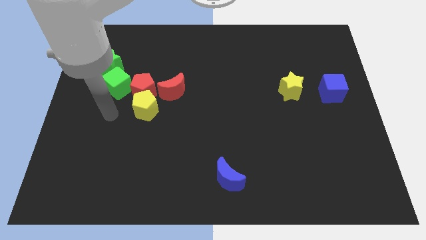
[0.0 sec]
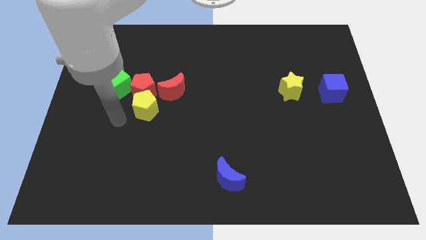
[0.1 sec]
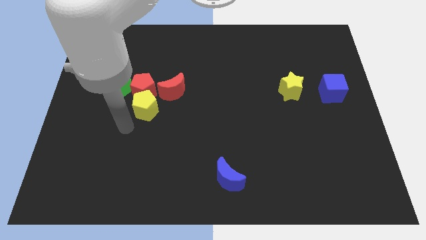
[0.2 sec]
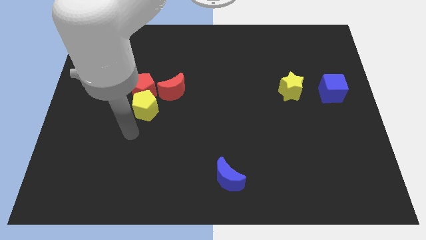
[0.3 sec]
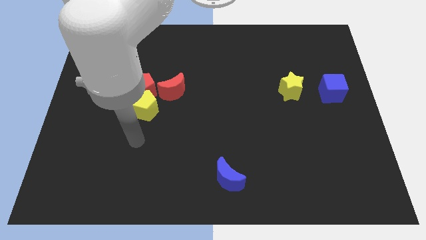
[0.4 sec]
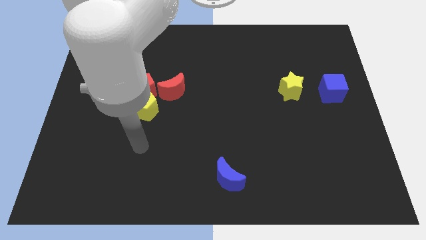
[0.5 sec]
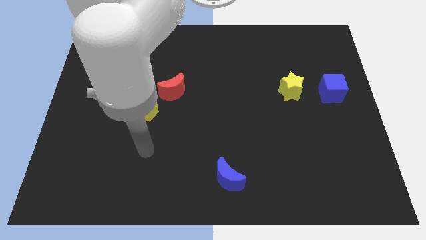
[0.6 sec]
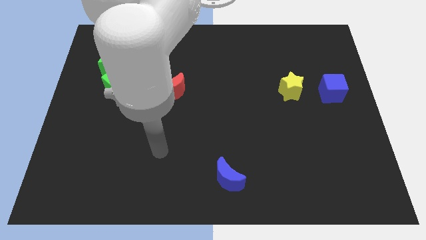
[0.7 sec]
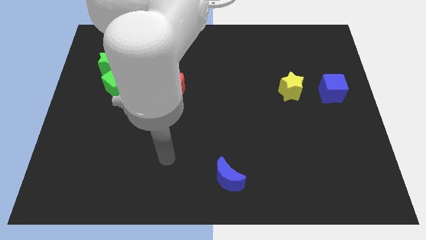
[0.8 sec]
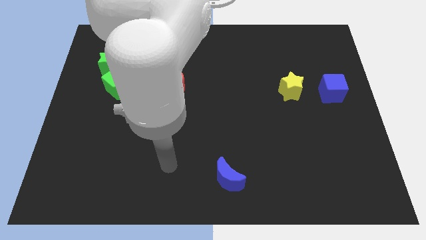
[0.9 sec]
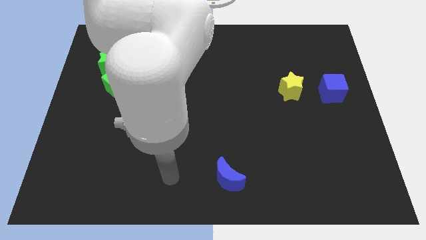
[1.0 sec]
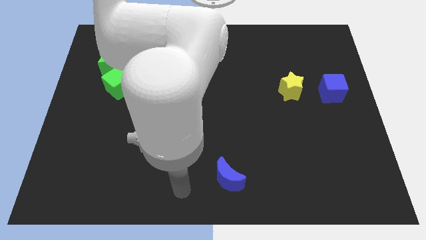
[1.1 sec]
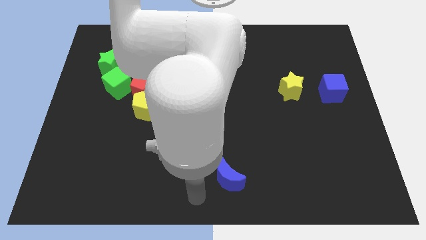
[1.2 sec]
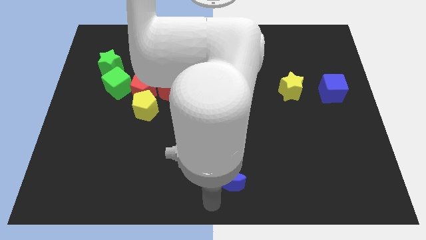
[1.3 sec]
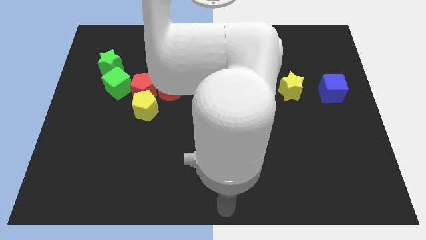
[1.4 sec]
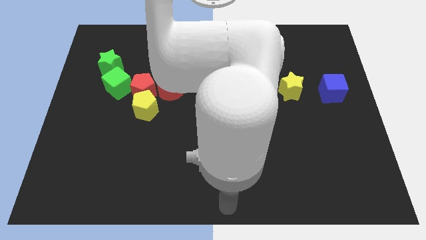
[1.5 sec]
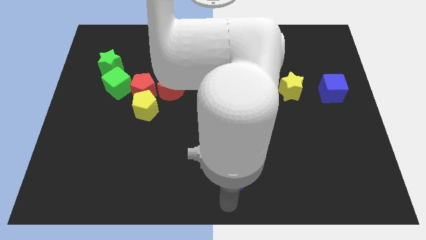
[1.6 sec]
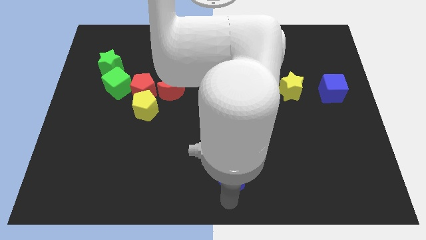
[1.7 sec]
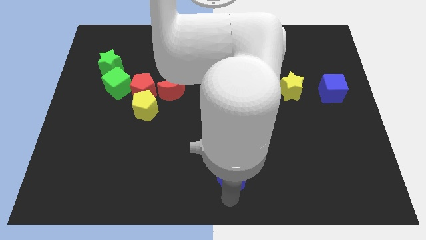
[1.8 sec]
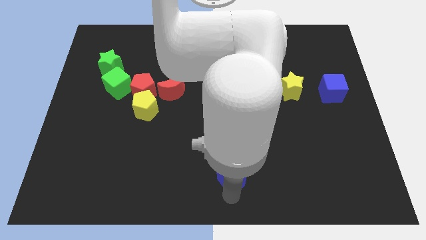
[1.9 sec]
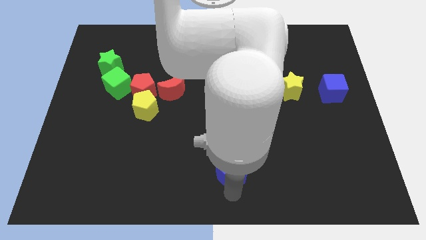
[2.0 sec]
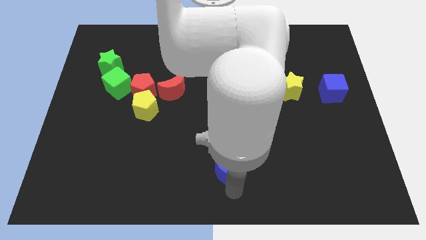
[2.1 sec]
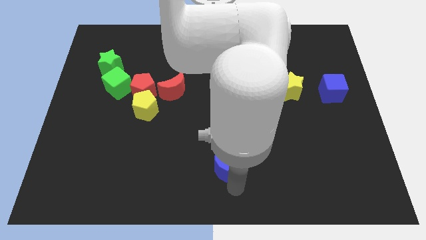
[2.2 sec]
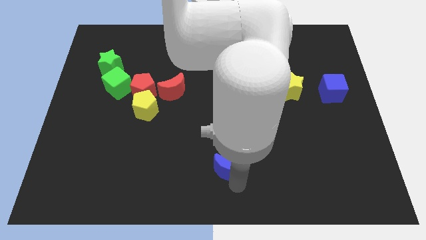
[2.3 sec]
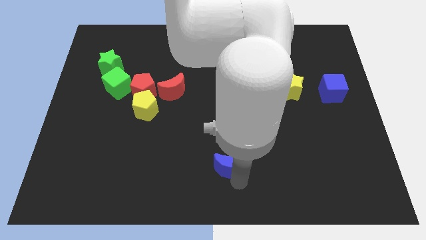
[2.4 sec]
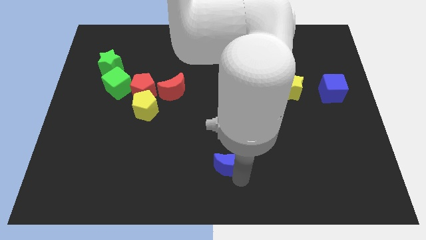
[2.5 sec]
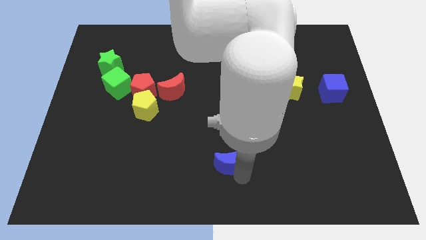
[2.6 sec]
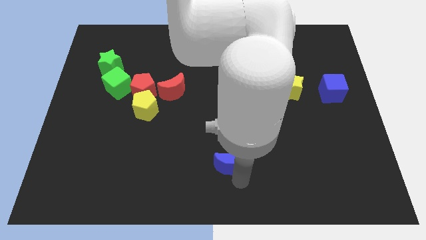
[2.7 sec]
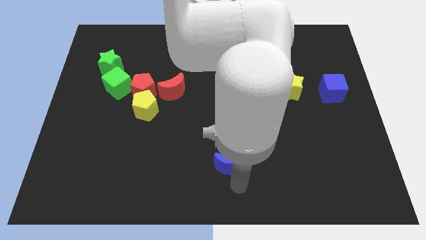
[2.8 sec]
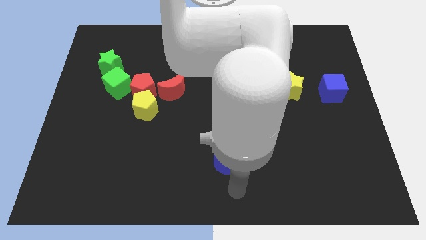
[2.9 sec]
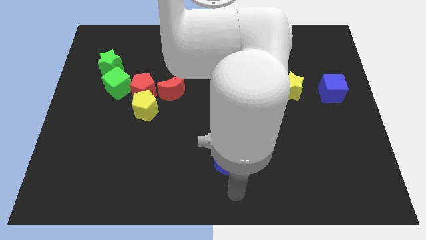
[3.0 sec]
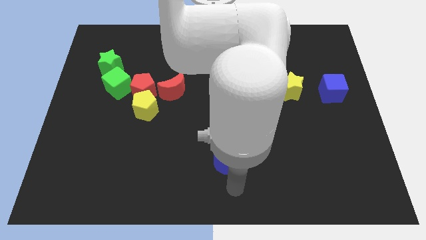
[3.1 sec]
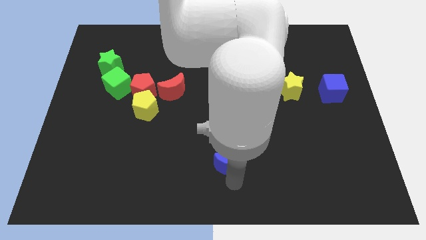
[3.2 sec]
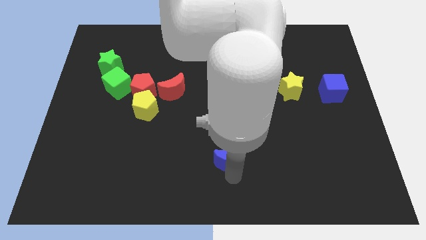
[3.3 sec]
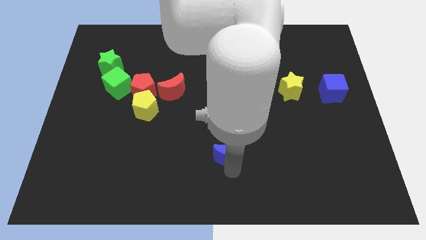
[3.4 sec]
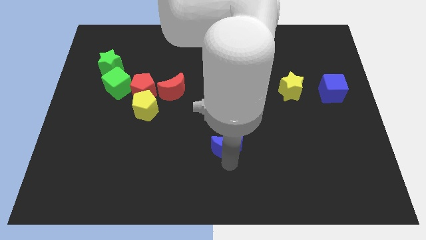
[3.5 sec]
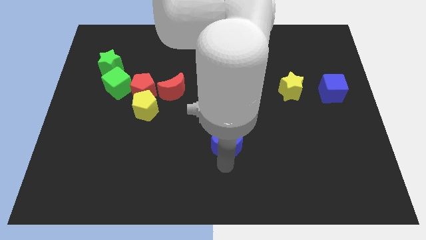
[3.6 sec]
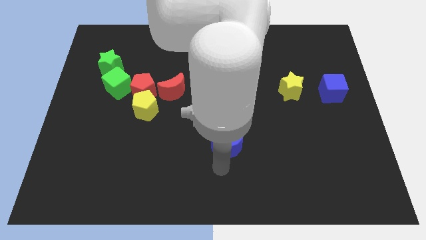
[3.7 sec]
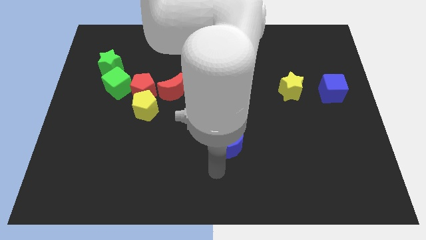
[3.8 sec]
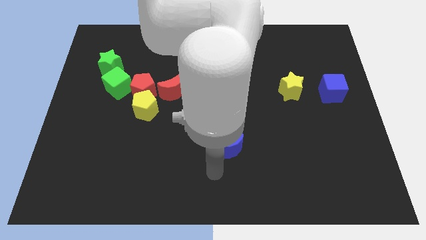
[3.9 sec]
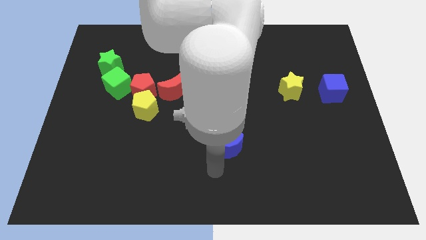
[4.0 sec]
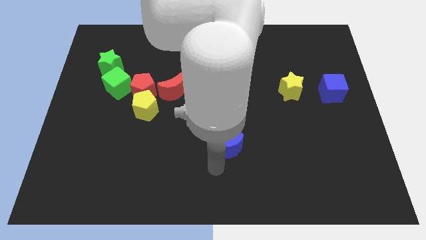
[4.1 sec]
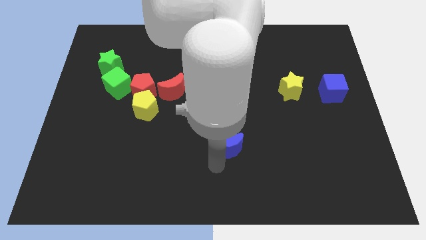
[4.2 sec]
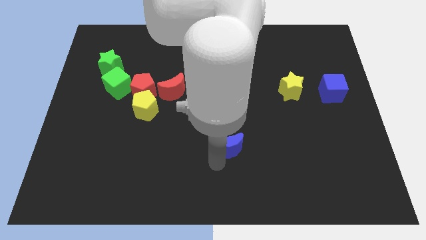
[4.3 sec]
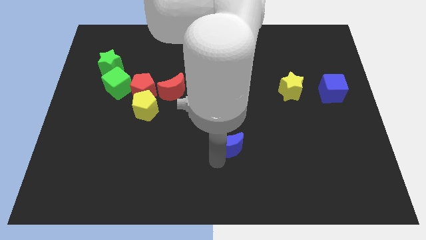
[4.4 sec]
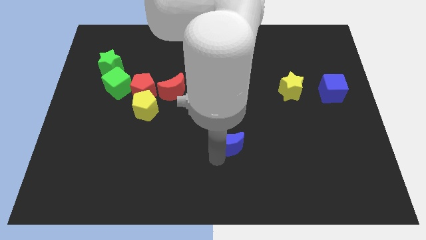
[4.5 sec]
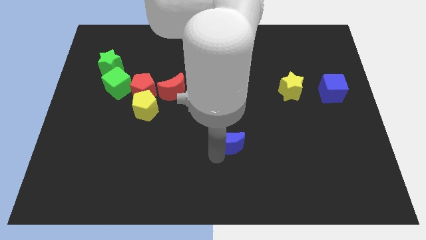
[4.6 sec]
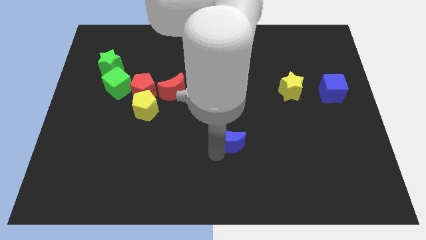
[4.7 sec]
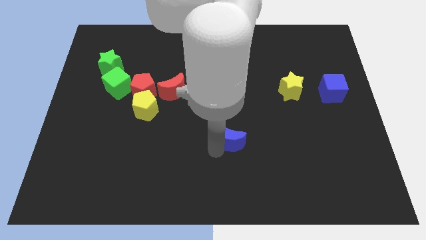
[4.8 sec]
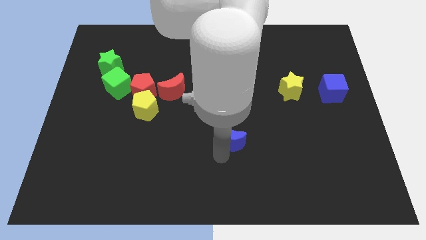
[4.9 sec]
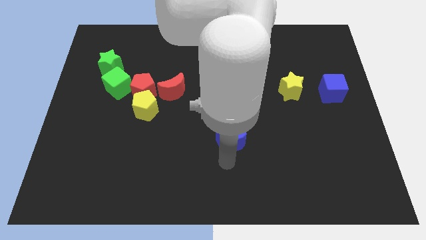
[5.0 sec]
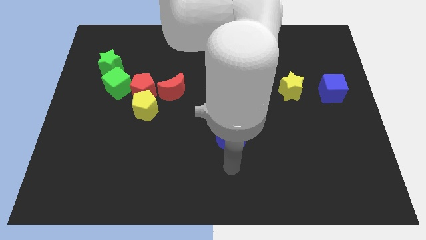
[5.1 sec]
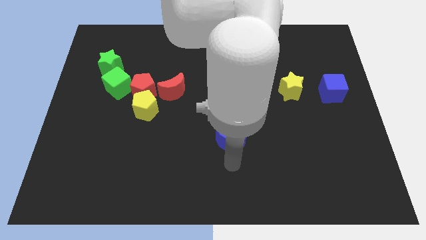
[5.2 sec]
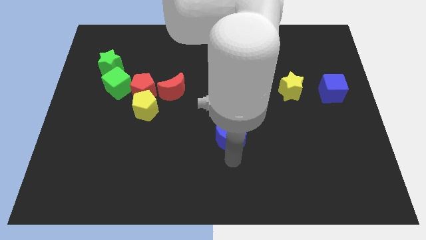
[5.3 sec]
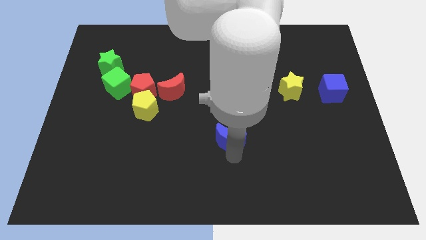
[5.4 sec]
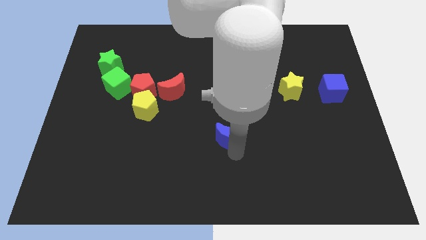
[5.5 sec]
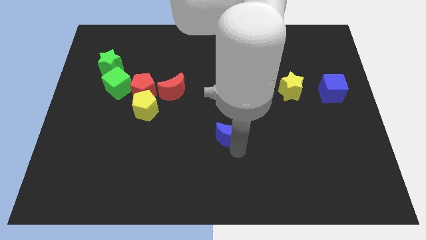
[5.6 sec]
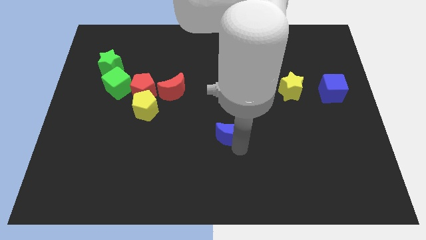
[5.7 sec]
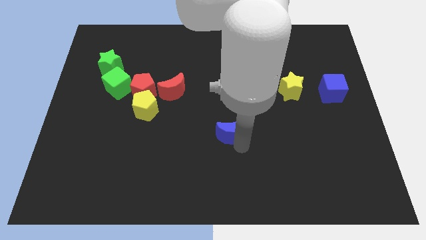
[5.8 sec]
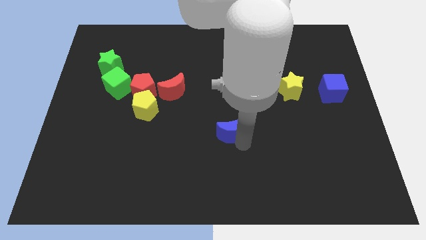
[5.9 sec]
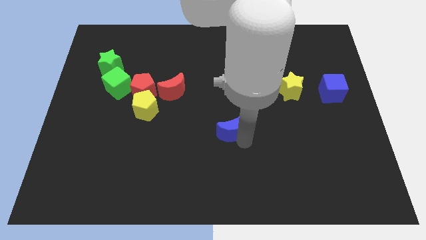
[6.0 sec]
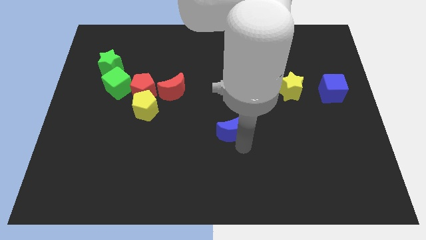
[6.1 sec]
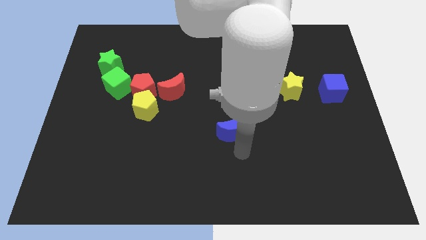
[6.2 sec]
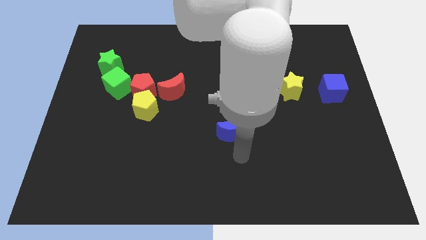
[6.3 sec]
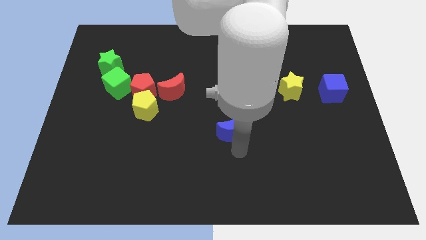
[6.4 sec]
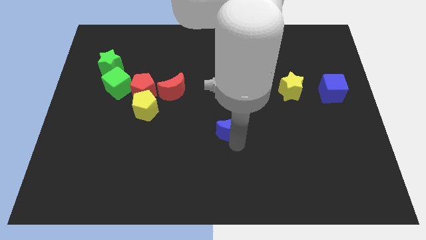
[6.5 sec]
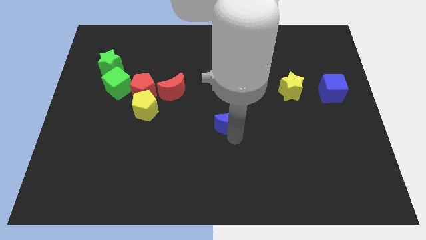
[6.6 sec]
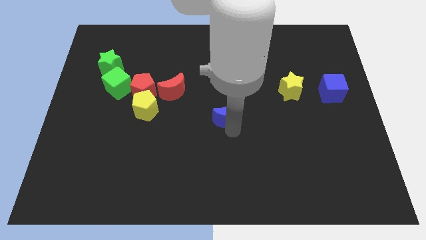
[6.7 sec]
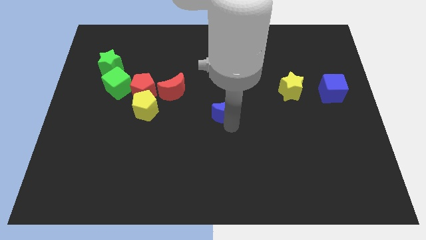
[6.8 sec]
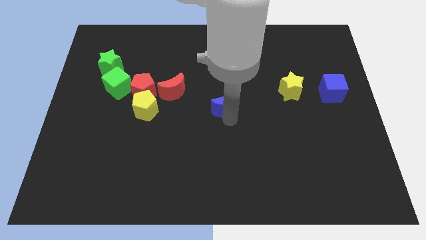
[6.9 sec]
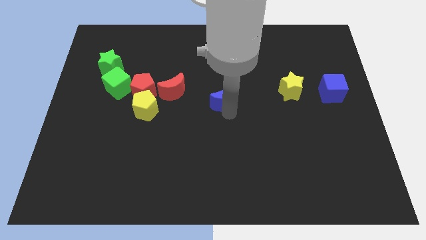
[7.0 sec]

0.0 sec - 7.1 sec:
put the blue moon just right of the red moon
